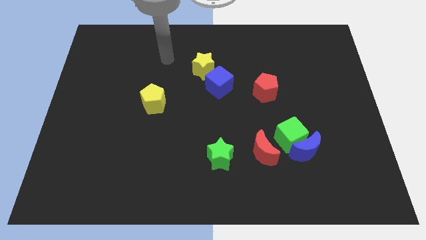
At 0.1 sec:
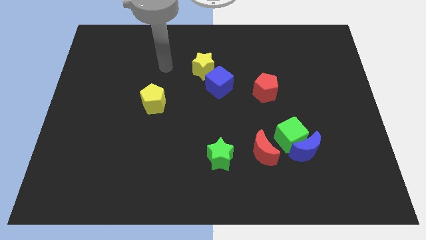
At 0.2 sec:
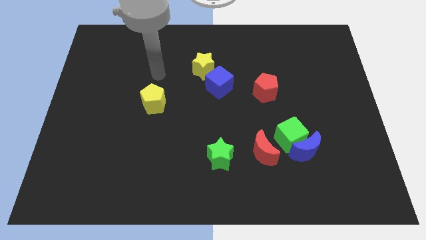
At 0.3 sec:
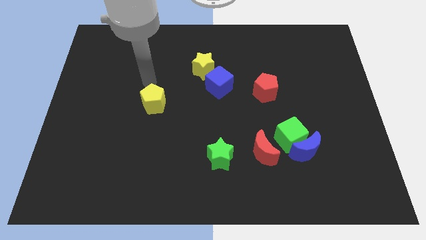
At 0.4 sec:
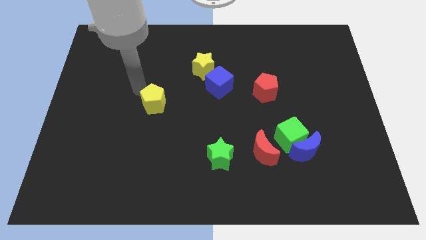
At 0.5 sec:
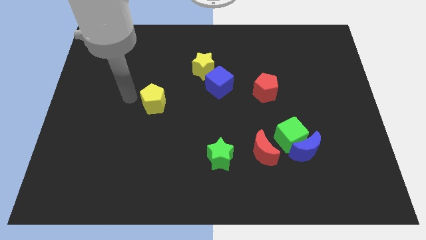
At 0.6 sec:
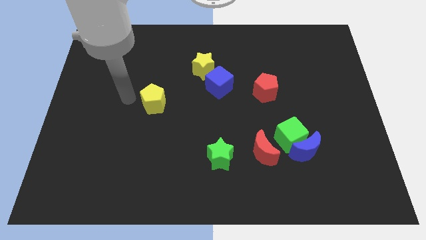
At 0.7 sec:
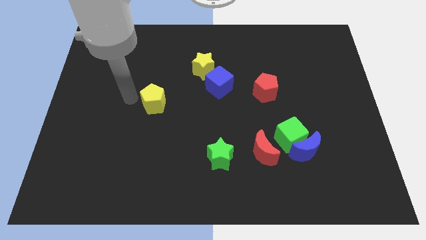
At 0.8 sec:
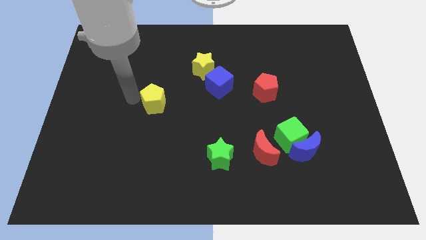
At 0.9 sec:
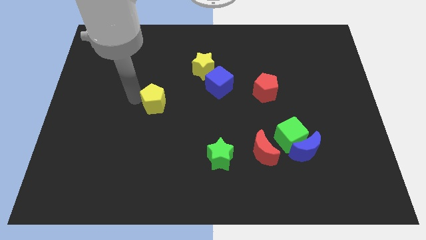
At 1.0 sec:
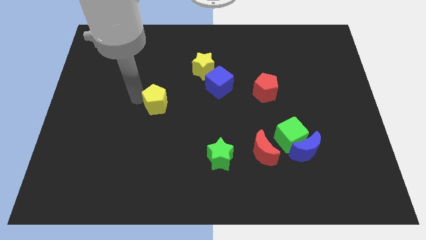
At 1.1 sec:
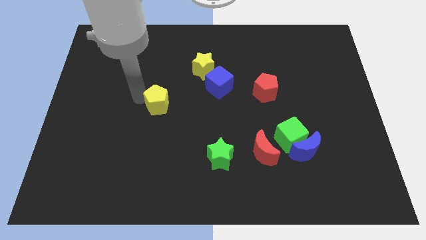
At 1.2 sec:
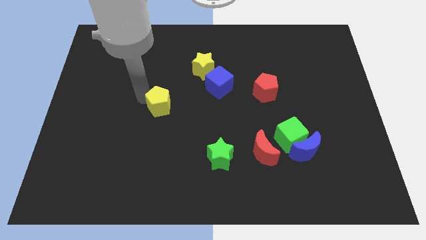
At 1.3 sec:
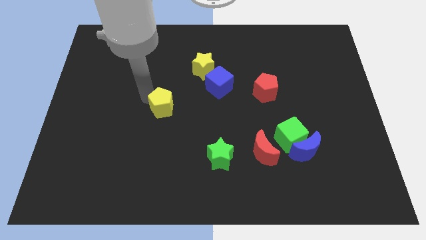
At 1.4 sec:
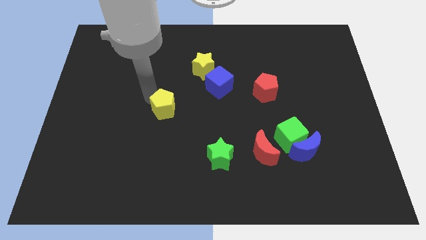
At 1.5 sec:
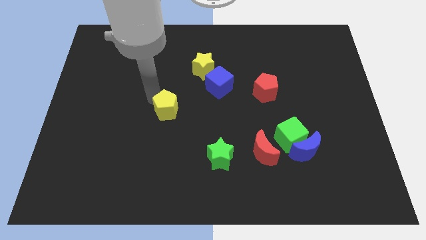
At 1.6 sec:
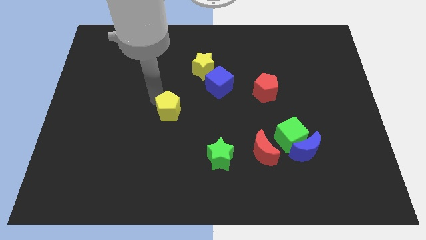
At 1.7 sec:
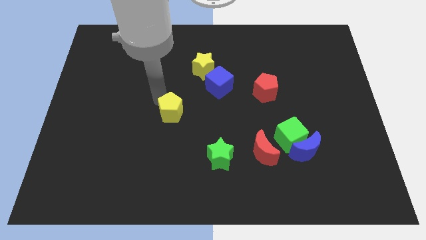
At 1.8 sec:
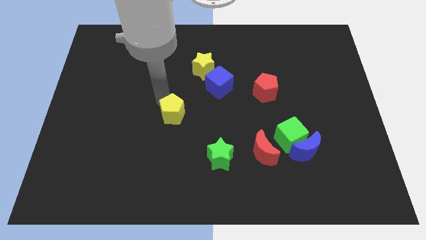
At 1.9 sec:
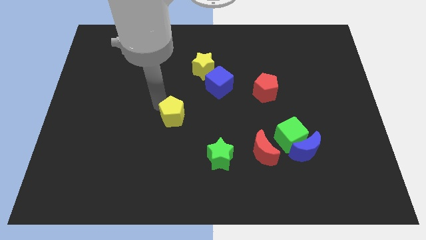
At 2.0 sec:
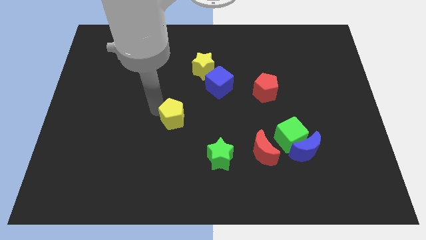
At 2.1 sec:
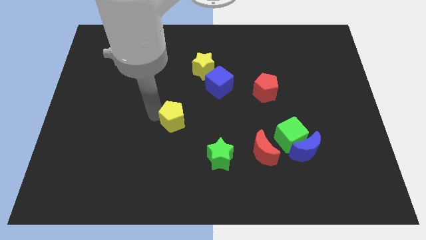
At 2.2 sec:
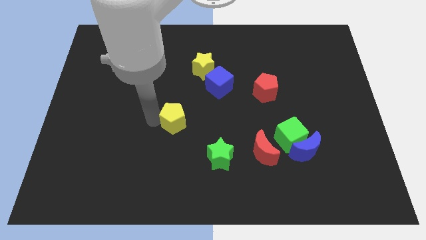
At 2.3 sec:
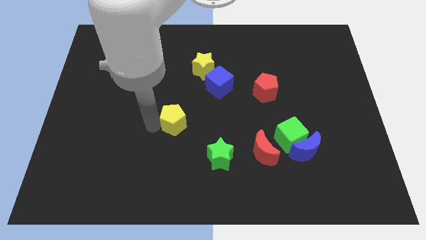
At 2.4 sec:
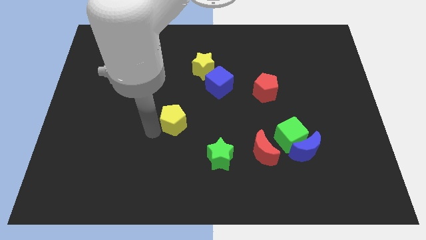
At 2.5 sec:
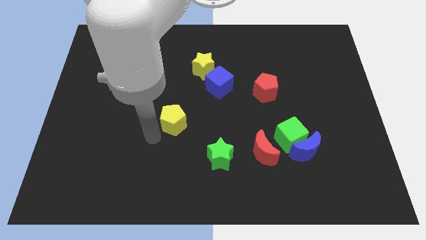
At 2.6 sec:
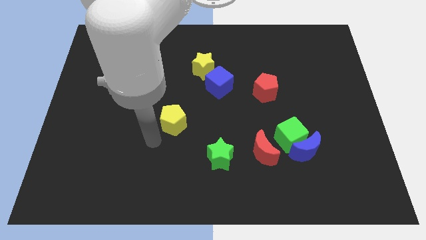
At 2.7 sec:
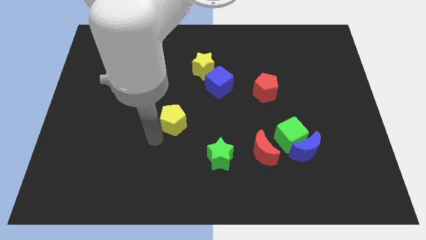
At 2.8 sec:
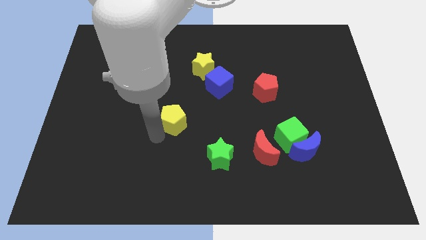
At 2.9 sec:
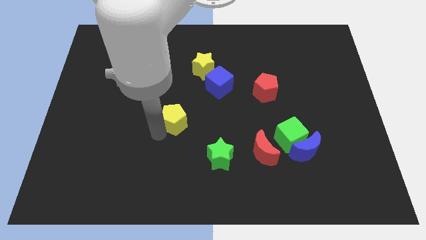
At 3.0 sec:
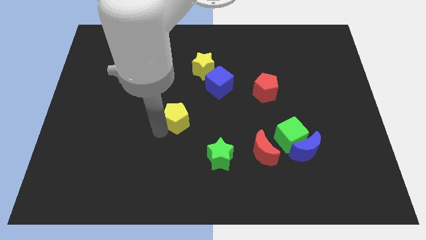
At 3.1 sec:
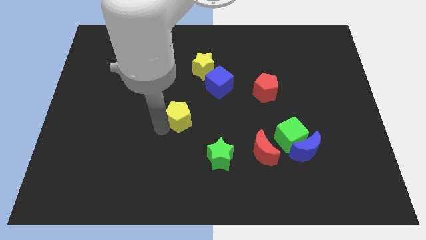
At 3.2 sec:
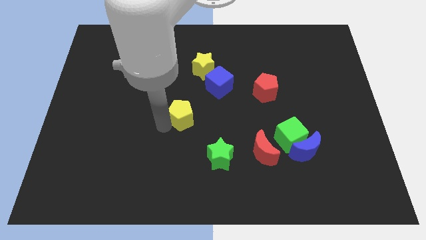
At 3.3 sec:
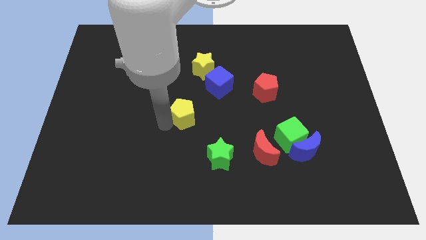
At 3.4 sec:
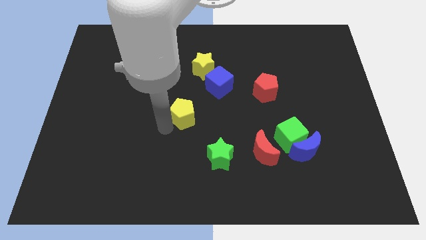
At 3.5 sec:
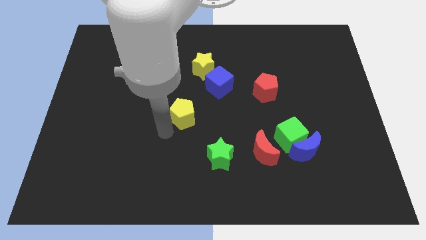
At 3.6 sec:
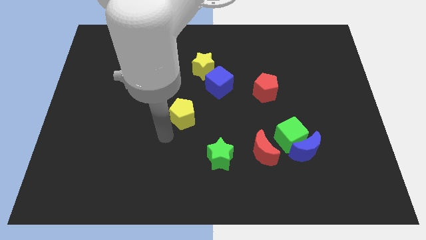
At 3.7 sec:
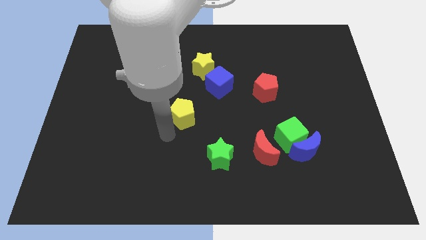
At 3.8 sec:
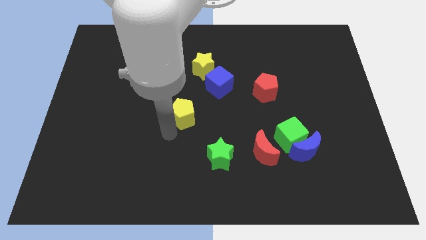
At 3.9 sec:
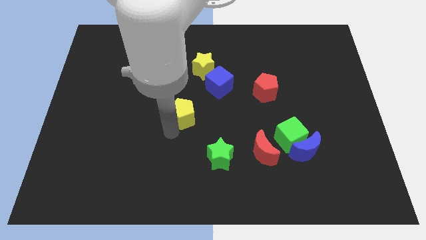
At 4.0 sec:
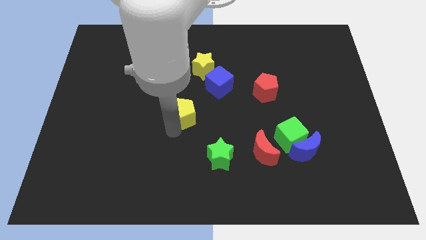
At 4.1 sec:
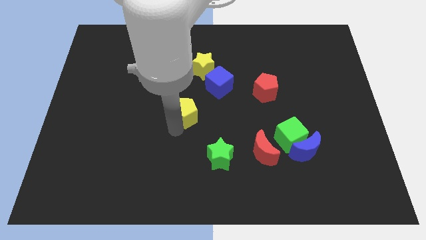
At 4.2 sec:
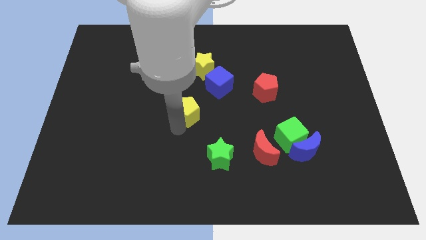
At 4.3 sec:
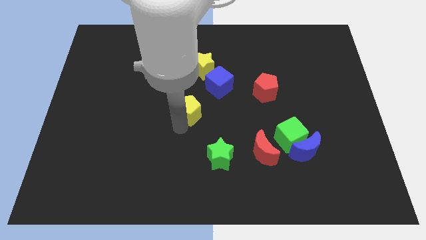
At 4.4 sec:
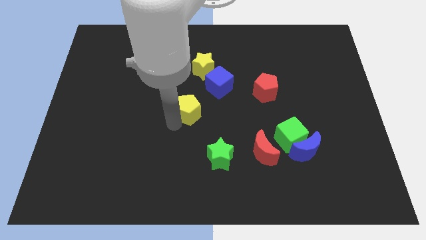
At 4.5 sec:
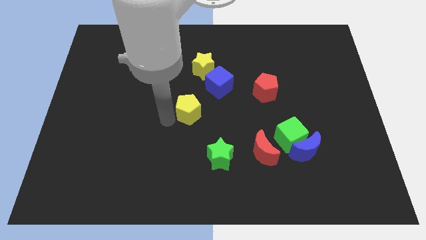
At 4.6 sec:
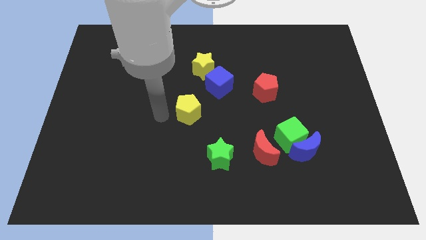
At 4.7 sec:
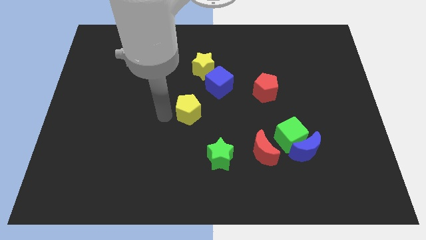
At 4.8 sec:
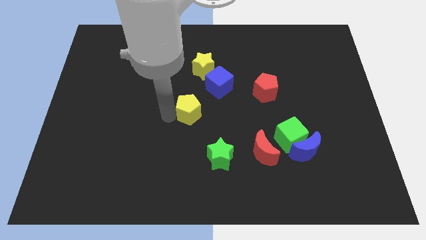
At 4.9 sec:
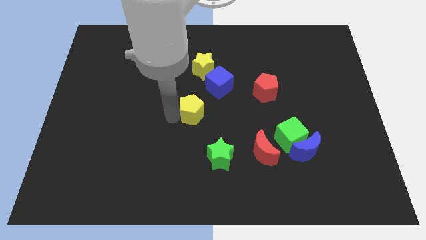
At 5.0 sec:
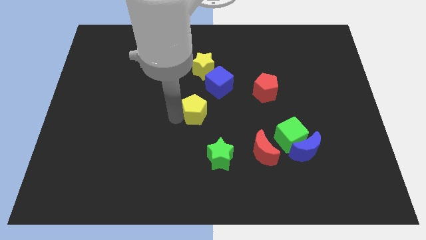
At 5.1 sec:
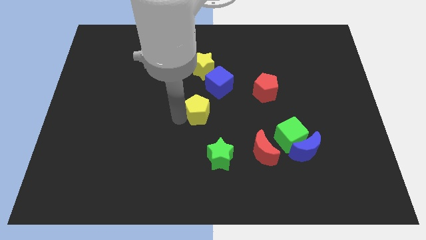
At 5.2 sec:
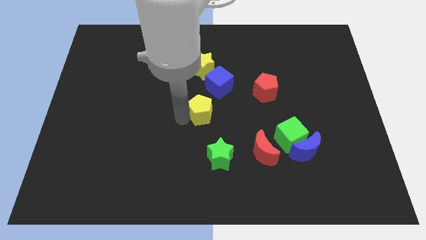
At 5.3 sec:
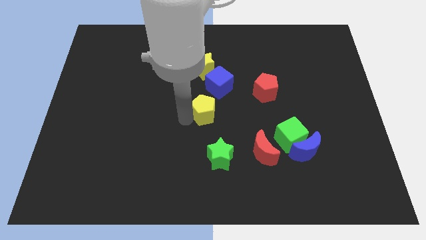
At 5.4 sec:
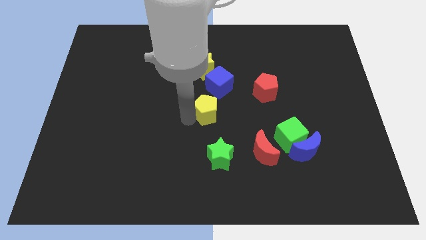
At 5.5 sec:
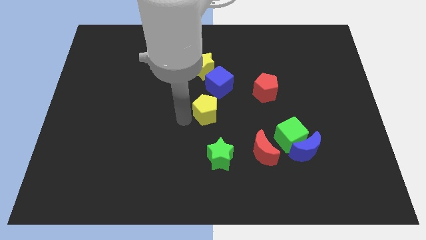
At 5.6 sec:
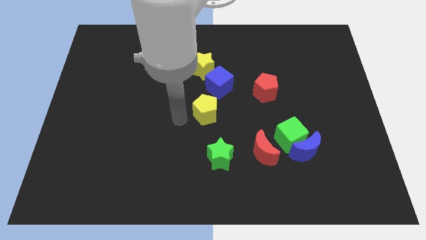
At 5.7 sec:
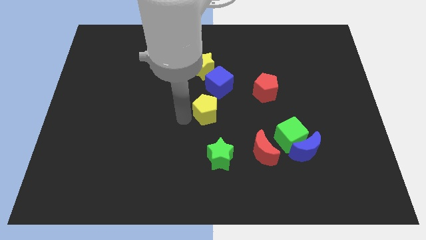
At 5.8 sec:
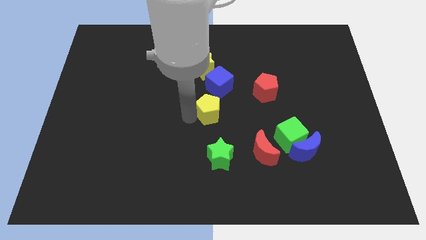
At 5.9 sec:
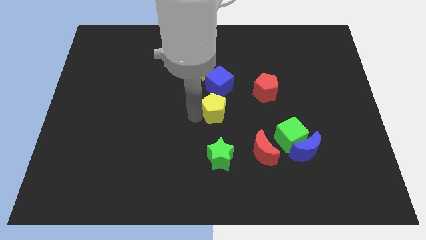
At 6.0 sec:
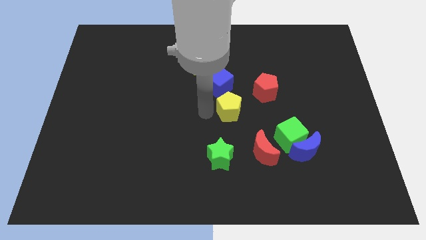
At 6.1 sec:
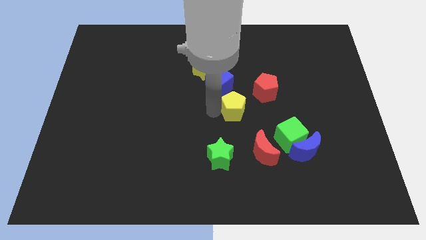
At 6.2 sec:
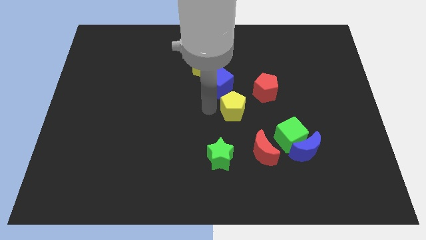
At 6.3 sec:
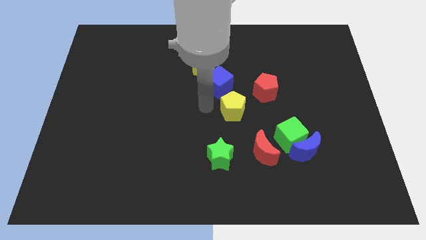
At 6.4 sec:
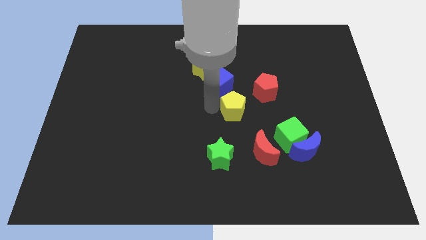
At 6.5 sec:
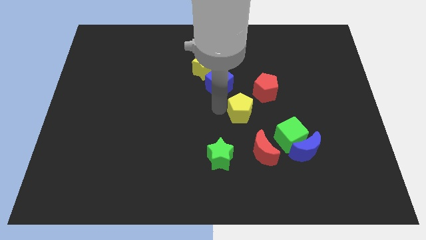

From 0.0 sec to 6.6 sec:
move the yellow pentagon to the top of the red moon
